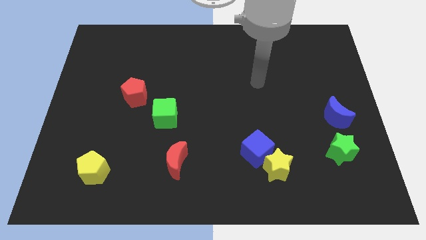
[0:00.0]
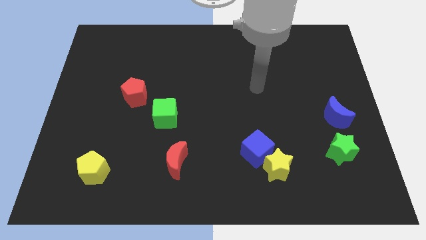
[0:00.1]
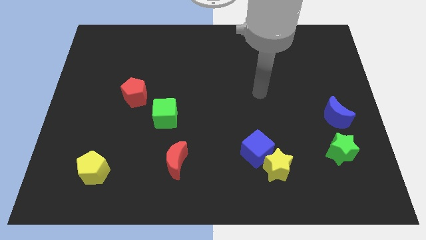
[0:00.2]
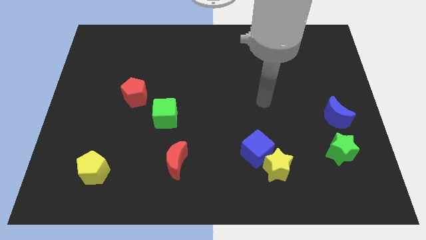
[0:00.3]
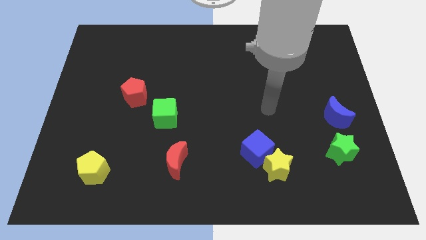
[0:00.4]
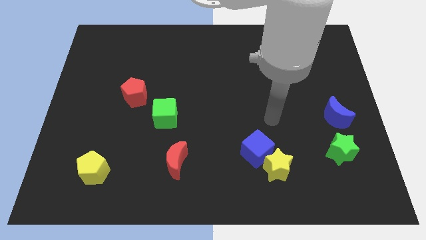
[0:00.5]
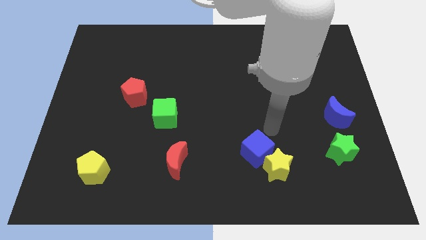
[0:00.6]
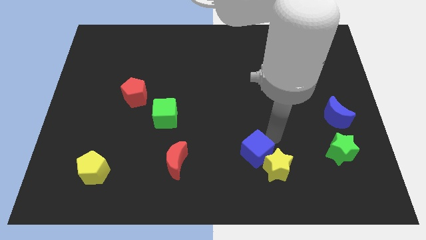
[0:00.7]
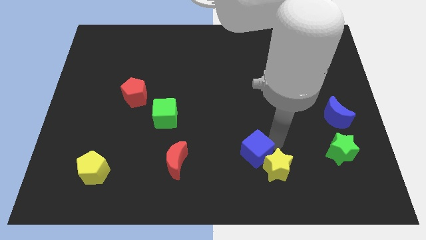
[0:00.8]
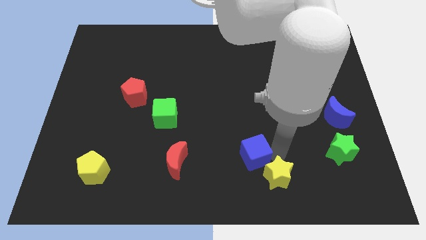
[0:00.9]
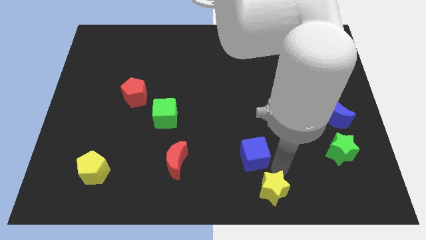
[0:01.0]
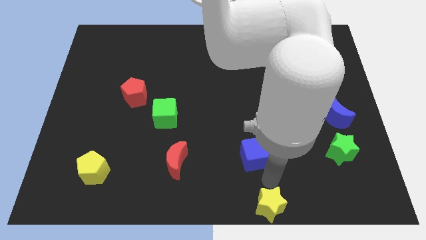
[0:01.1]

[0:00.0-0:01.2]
move the blue cube away from the yellow star

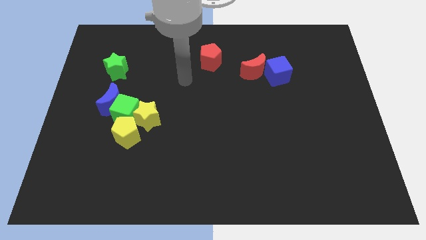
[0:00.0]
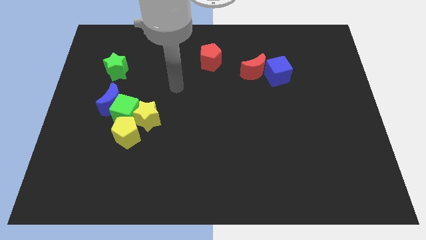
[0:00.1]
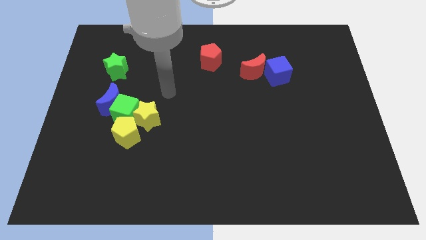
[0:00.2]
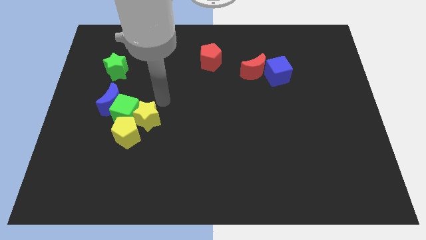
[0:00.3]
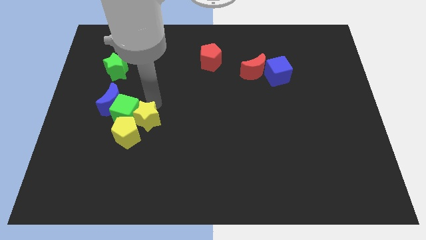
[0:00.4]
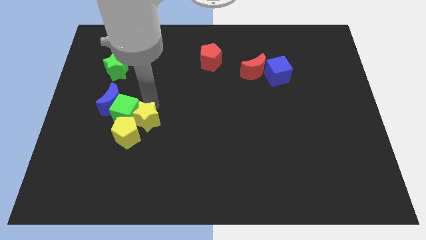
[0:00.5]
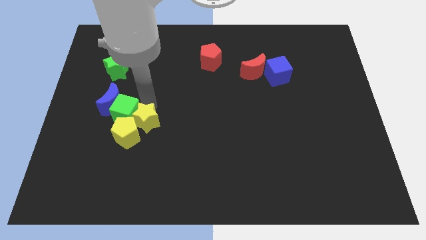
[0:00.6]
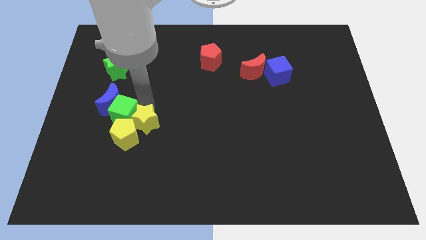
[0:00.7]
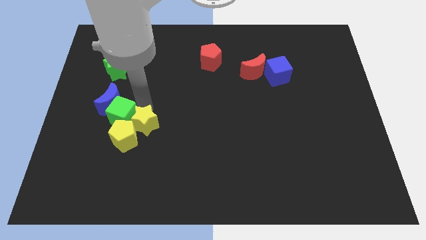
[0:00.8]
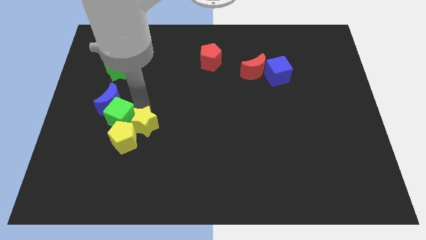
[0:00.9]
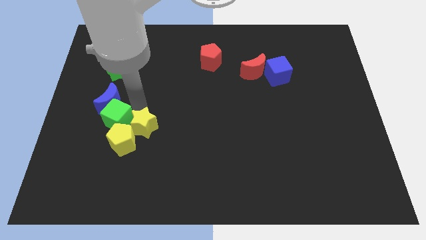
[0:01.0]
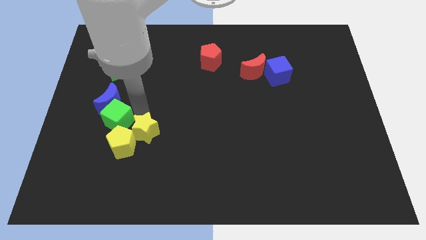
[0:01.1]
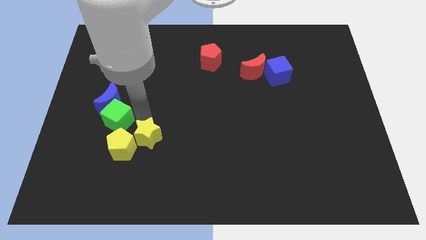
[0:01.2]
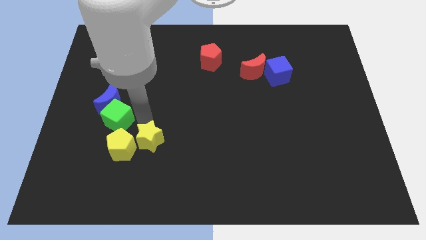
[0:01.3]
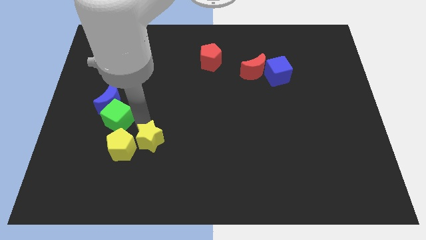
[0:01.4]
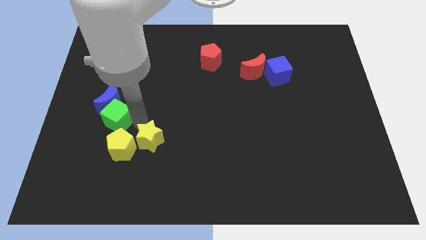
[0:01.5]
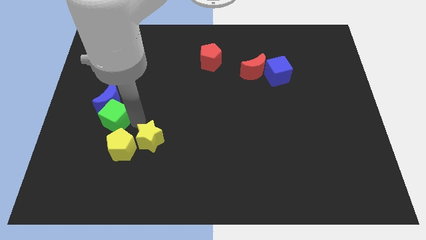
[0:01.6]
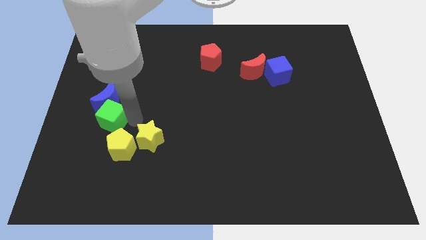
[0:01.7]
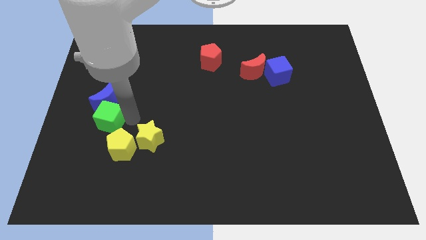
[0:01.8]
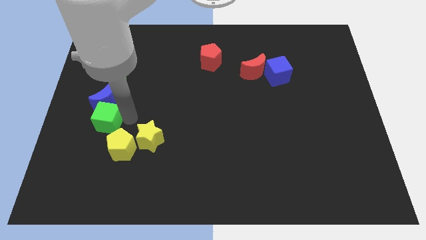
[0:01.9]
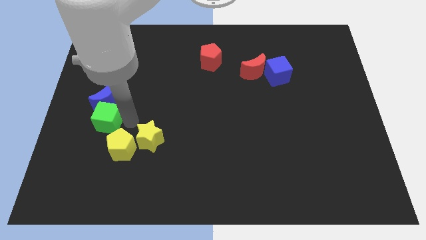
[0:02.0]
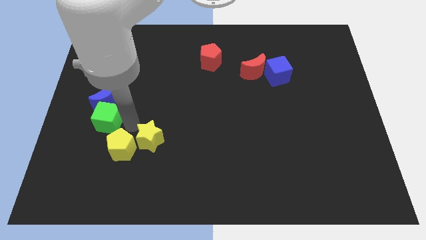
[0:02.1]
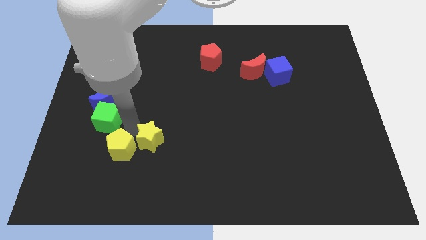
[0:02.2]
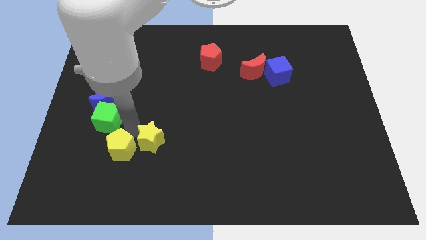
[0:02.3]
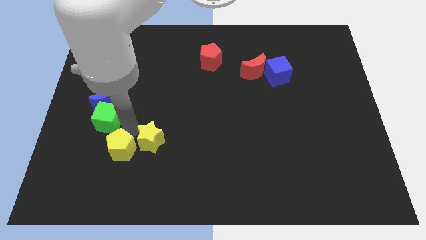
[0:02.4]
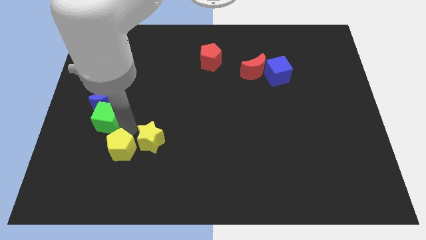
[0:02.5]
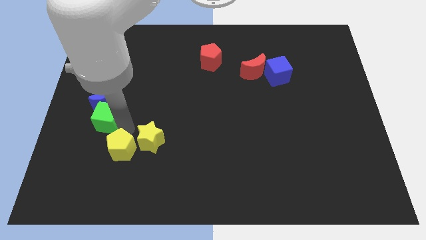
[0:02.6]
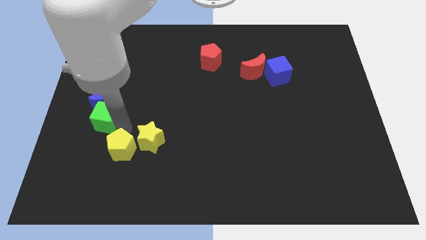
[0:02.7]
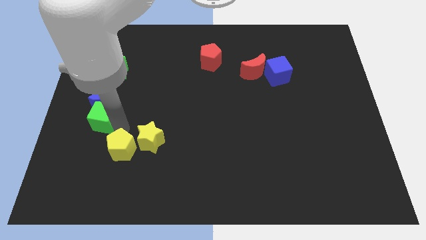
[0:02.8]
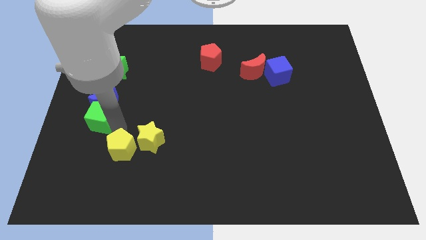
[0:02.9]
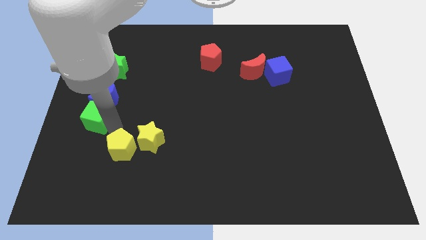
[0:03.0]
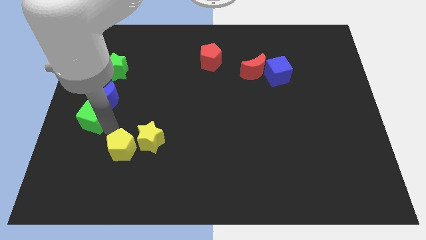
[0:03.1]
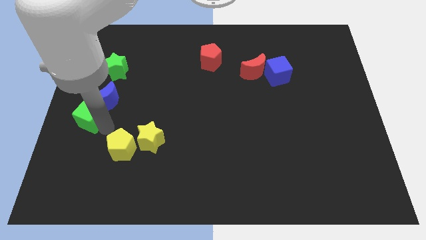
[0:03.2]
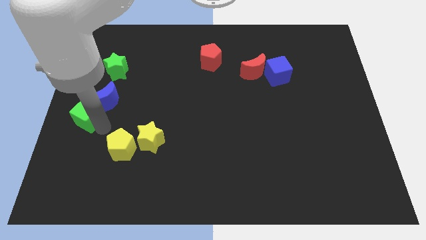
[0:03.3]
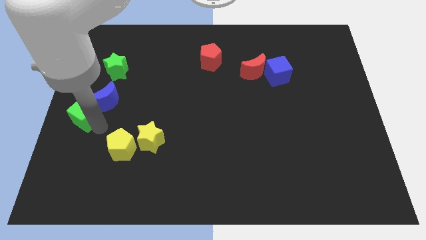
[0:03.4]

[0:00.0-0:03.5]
move the green cube away from the clump

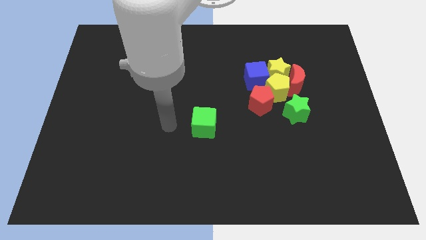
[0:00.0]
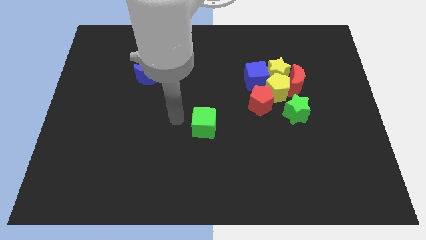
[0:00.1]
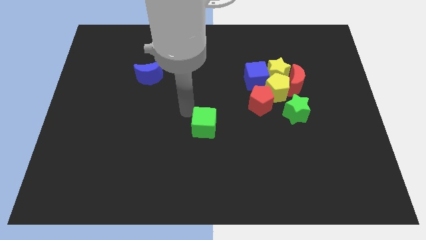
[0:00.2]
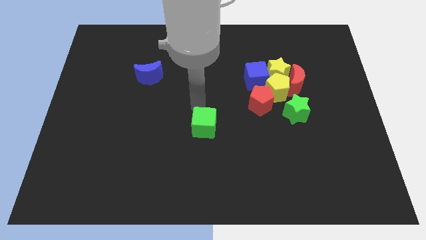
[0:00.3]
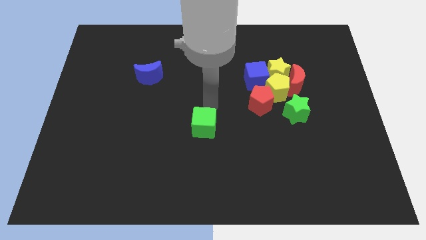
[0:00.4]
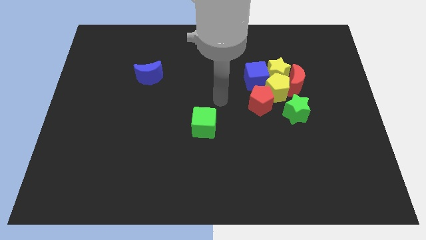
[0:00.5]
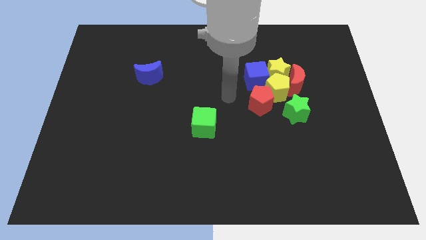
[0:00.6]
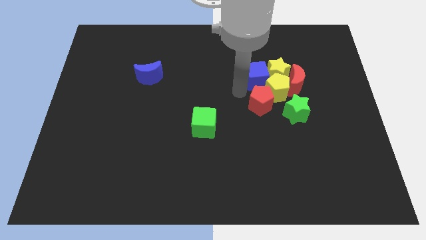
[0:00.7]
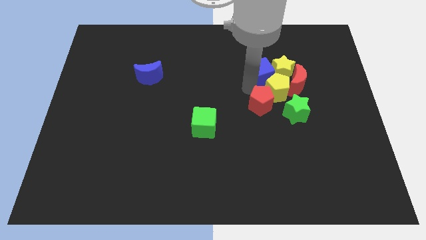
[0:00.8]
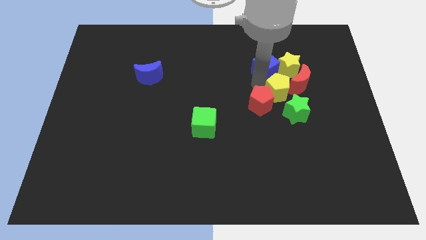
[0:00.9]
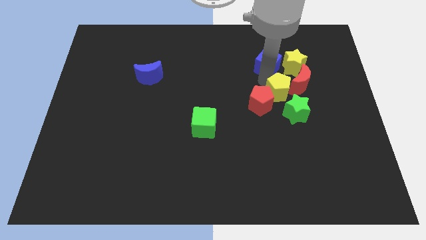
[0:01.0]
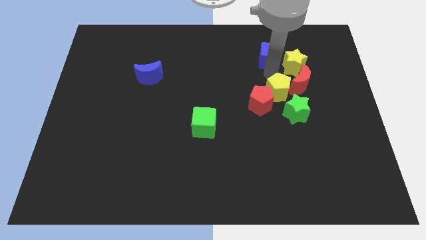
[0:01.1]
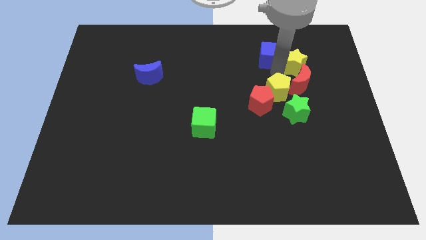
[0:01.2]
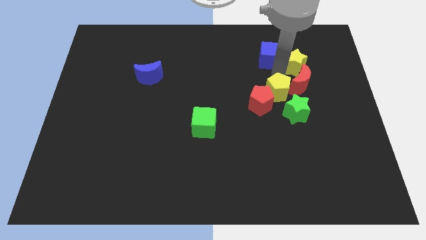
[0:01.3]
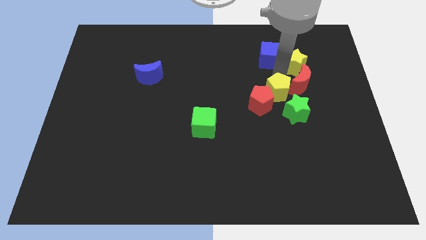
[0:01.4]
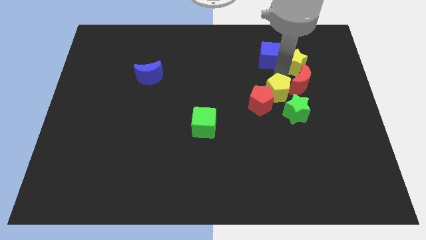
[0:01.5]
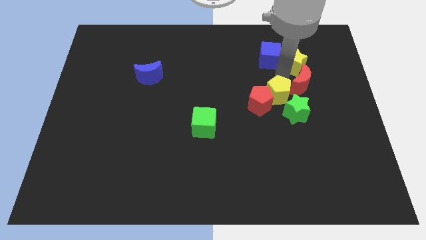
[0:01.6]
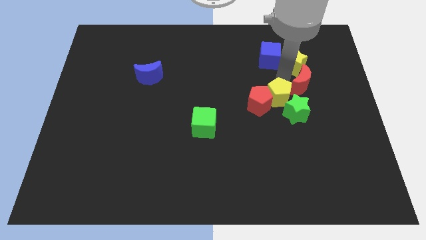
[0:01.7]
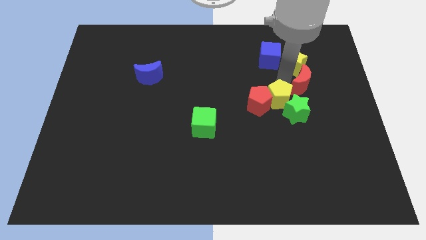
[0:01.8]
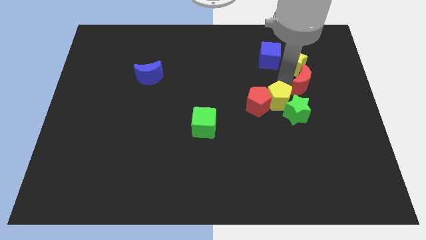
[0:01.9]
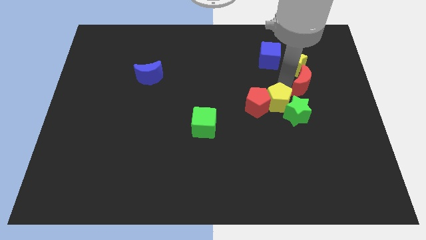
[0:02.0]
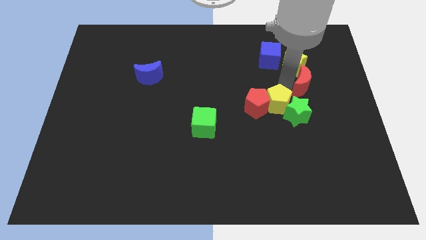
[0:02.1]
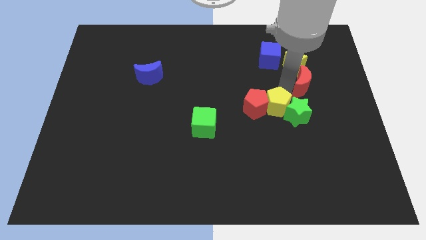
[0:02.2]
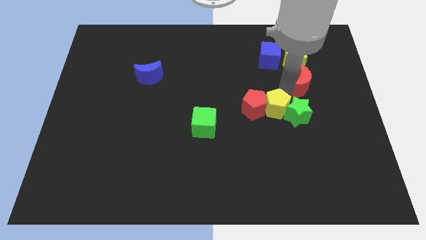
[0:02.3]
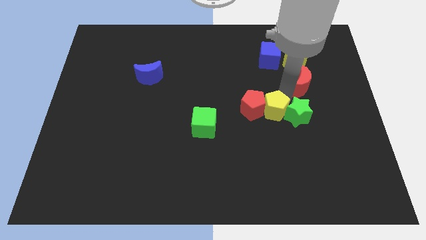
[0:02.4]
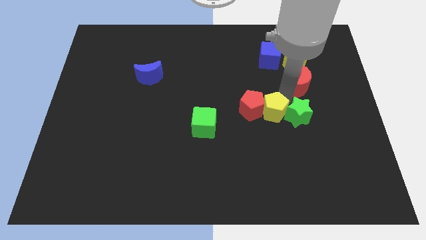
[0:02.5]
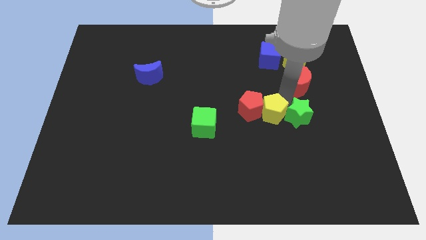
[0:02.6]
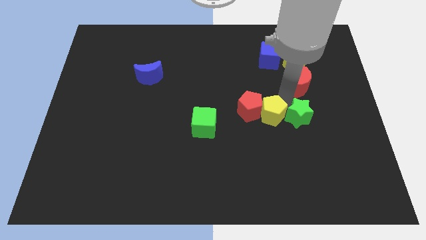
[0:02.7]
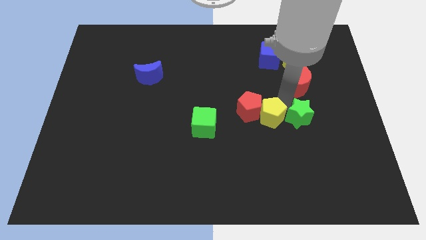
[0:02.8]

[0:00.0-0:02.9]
separate the yellow pentagon from the group

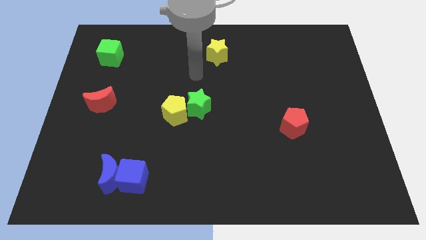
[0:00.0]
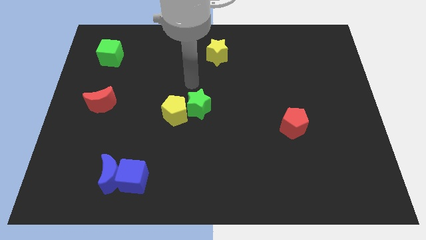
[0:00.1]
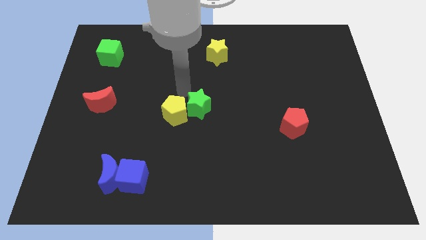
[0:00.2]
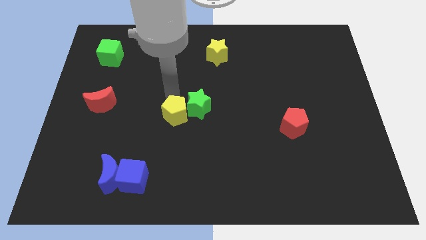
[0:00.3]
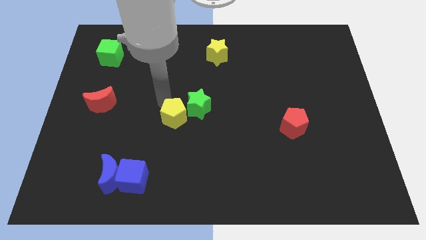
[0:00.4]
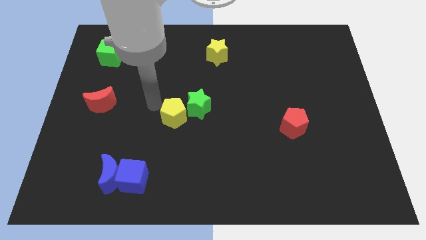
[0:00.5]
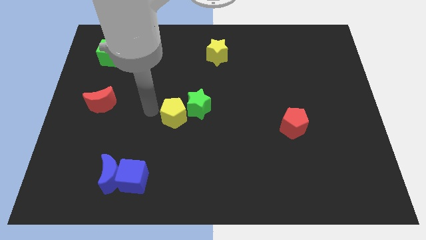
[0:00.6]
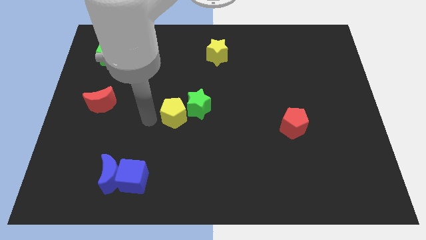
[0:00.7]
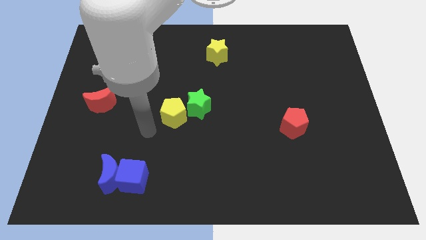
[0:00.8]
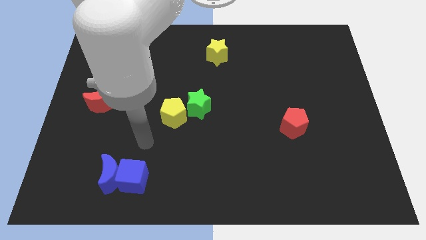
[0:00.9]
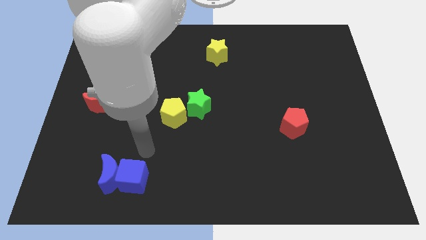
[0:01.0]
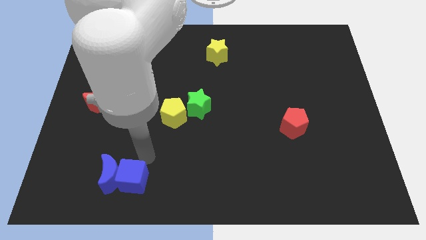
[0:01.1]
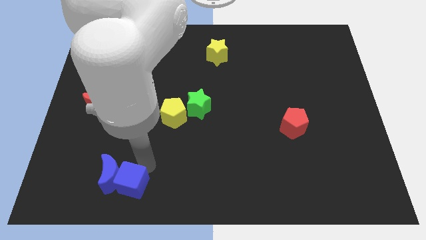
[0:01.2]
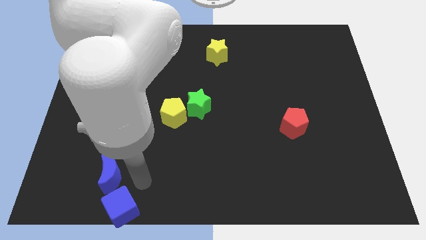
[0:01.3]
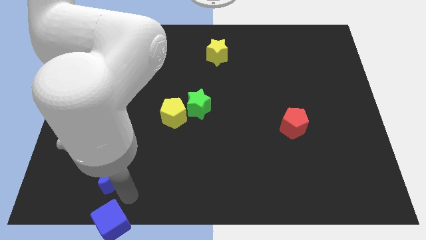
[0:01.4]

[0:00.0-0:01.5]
pull the blue moon apart from the blue cube

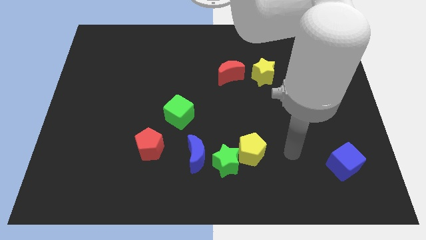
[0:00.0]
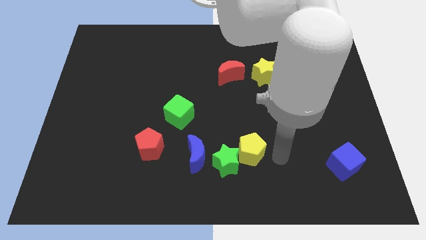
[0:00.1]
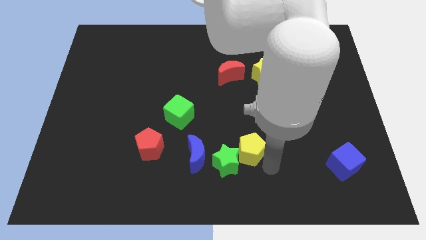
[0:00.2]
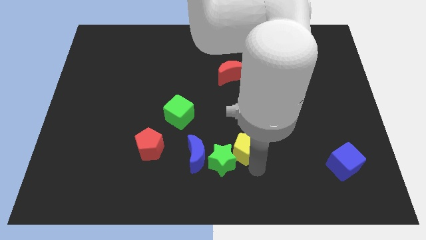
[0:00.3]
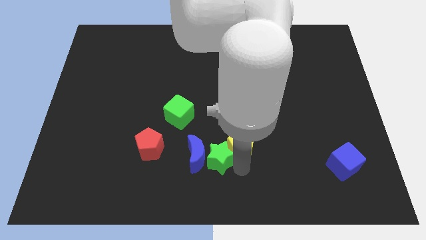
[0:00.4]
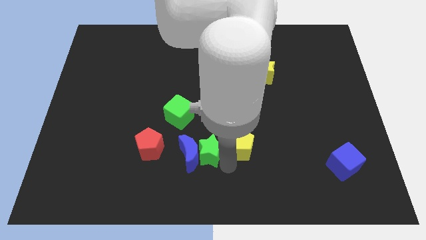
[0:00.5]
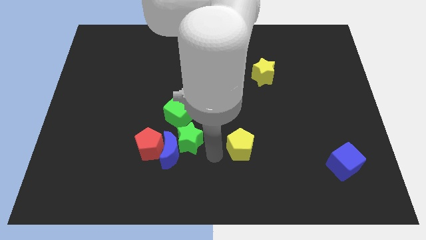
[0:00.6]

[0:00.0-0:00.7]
pull the yellow pentagon apart from the green star
